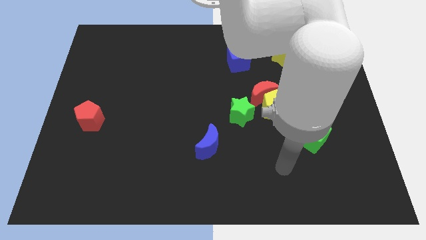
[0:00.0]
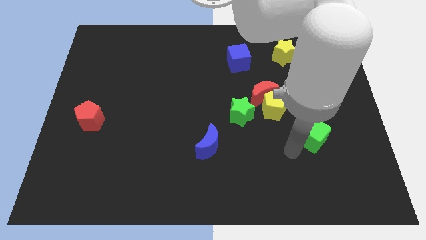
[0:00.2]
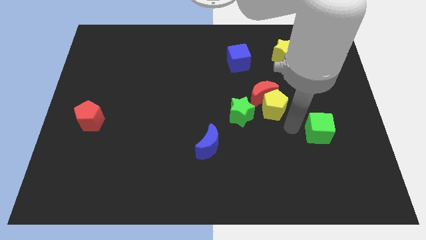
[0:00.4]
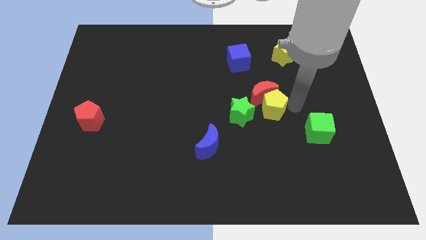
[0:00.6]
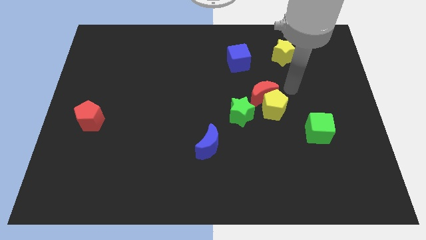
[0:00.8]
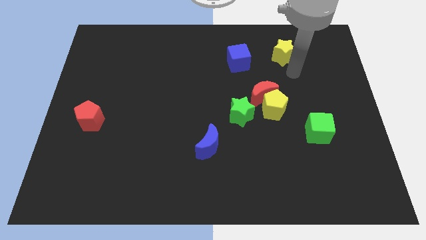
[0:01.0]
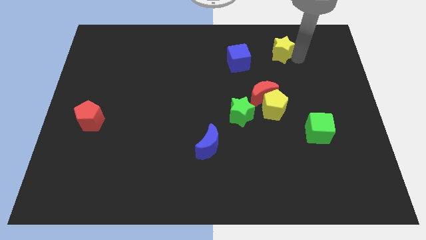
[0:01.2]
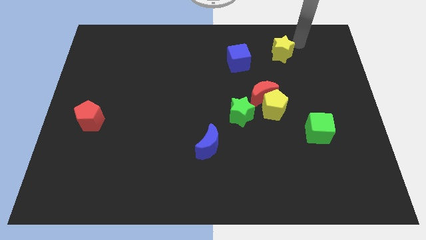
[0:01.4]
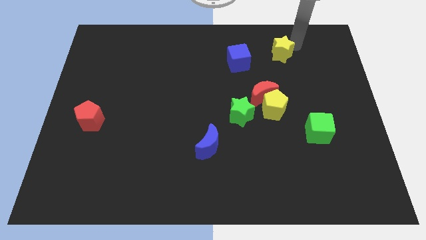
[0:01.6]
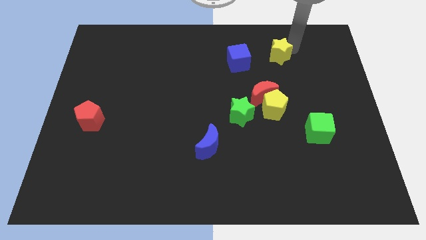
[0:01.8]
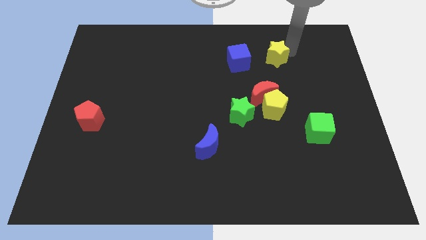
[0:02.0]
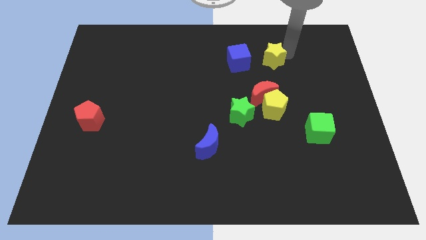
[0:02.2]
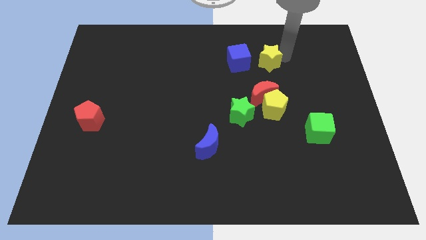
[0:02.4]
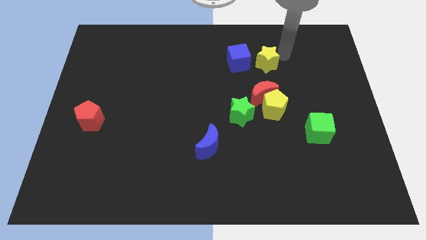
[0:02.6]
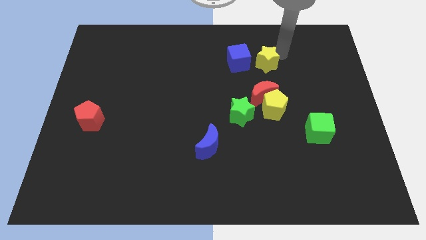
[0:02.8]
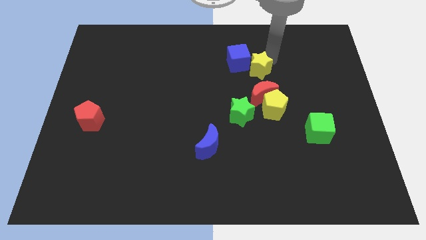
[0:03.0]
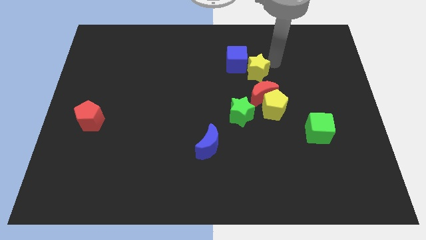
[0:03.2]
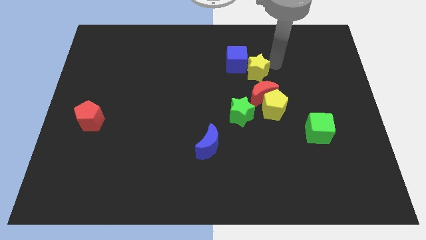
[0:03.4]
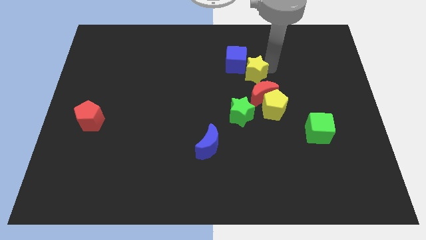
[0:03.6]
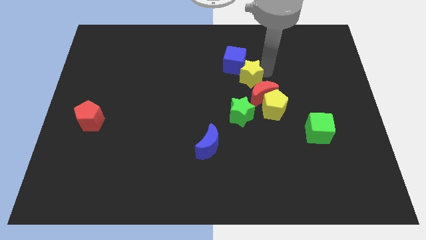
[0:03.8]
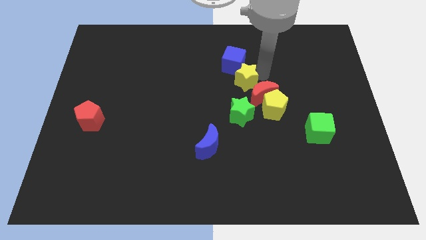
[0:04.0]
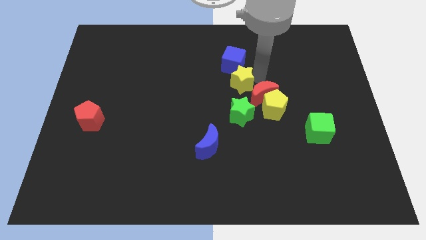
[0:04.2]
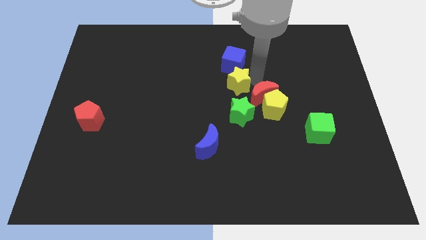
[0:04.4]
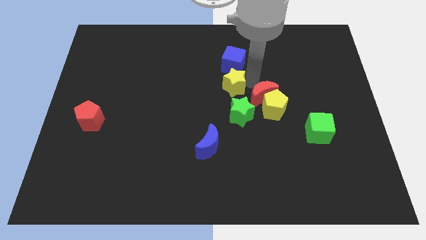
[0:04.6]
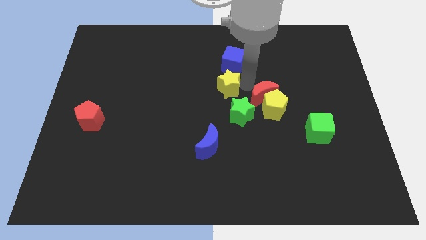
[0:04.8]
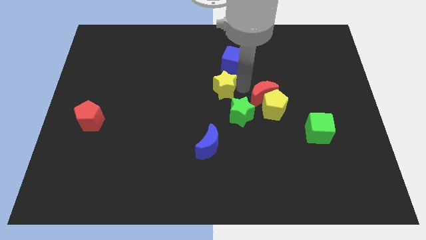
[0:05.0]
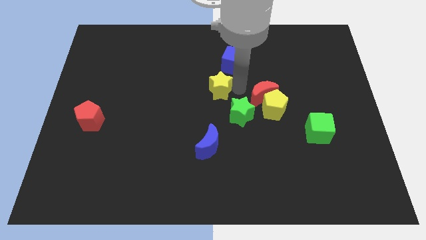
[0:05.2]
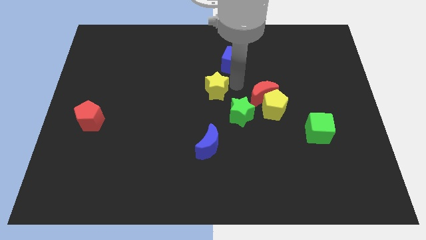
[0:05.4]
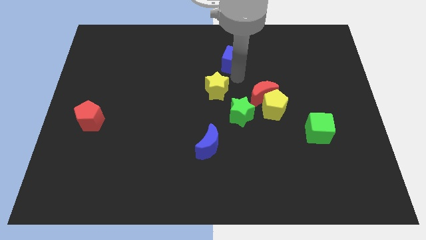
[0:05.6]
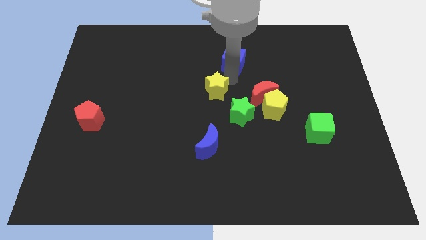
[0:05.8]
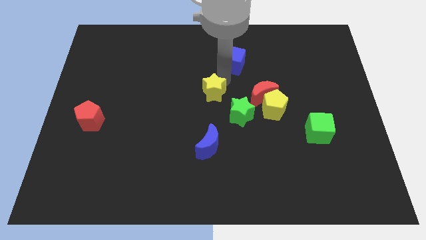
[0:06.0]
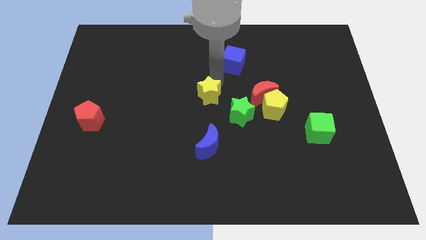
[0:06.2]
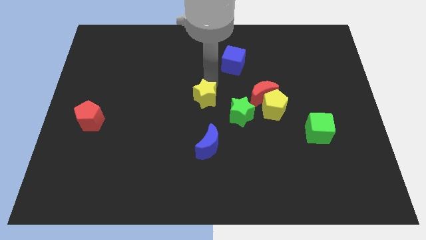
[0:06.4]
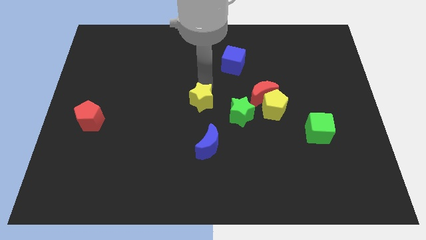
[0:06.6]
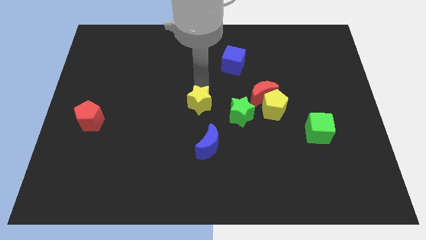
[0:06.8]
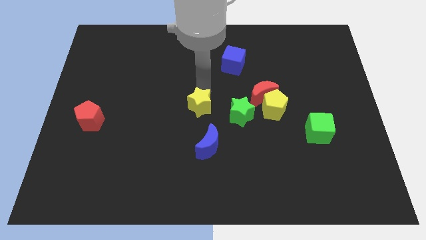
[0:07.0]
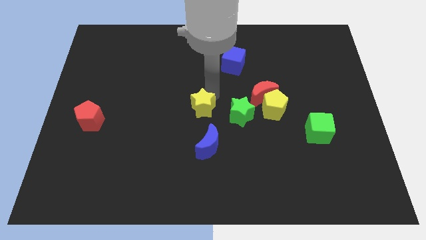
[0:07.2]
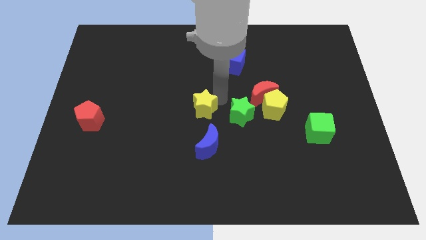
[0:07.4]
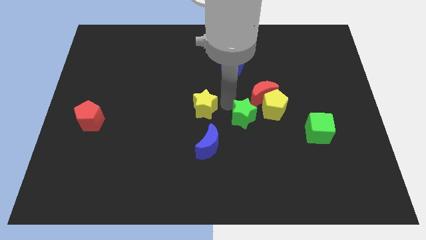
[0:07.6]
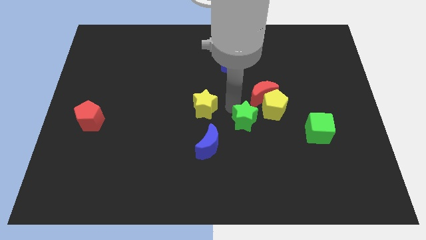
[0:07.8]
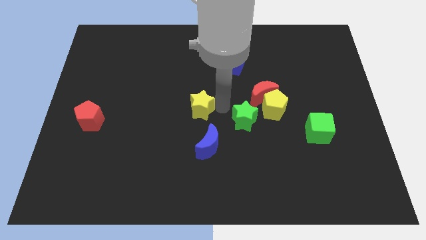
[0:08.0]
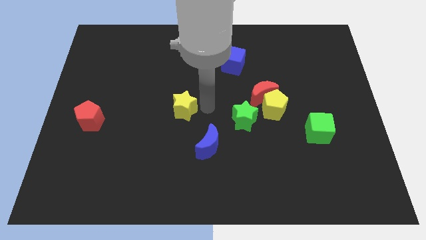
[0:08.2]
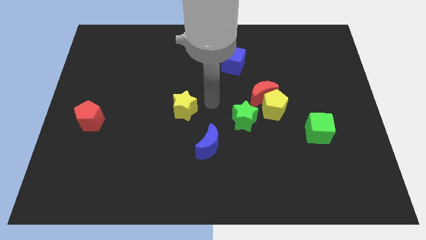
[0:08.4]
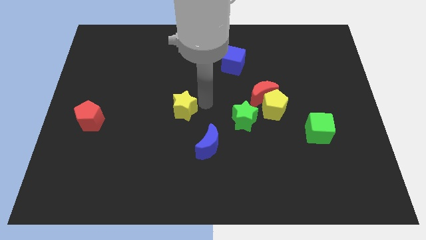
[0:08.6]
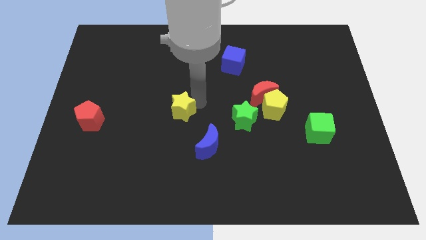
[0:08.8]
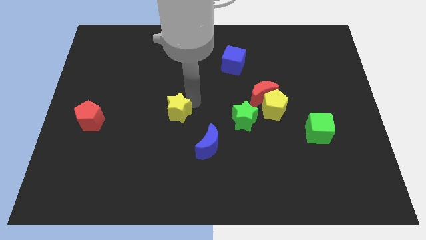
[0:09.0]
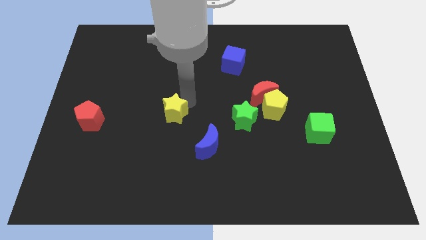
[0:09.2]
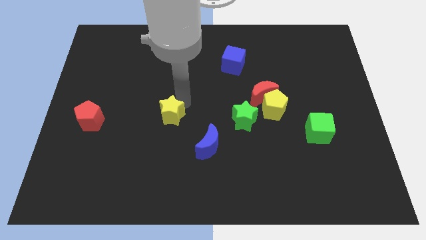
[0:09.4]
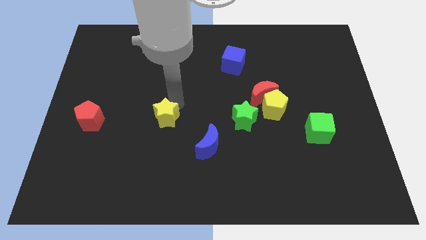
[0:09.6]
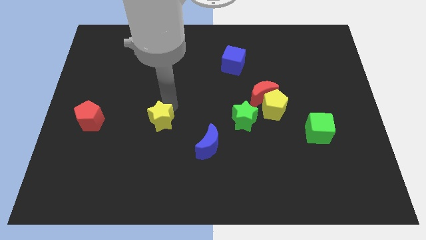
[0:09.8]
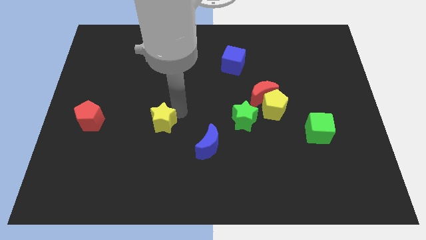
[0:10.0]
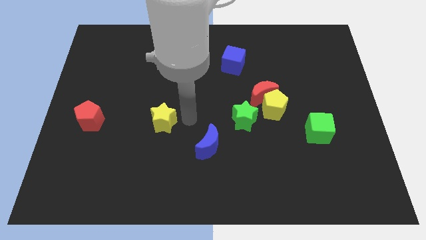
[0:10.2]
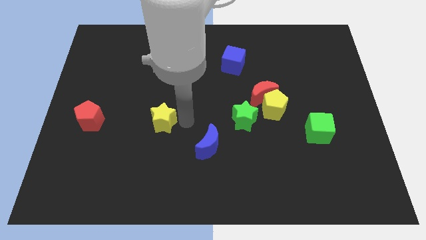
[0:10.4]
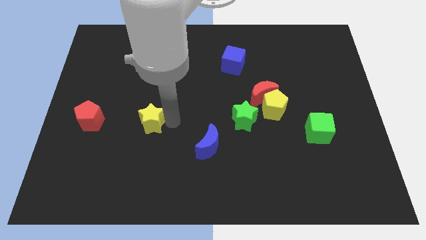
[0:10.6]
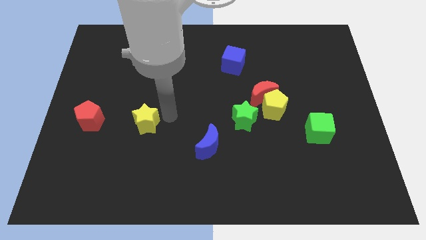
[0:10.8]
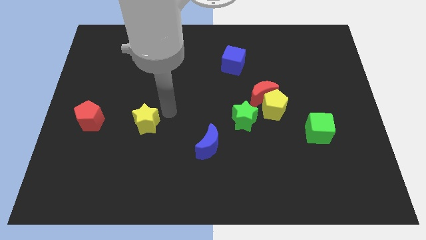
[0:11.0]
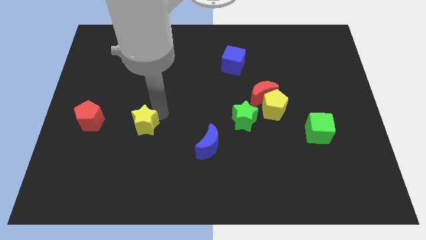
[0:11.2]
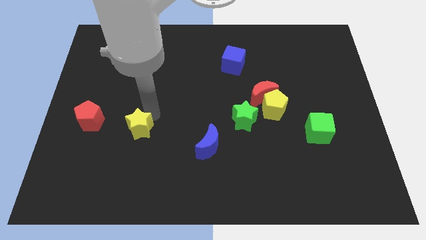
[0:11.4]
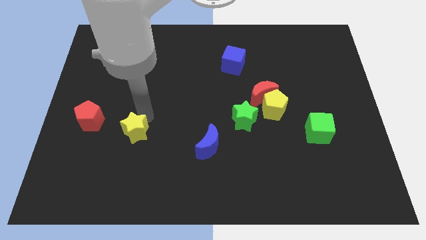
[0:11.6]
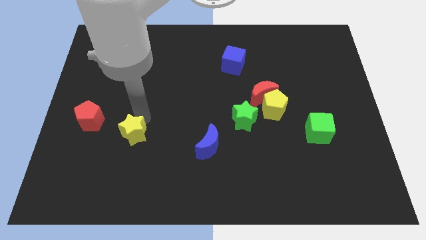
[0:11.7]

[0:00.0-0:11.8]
push the yellow star to the bottom right side of the red pentagon

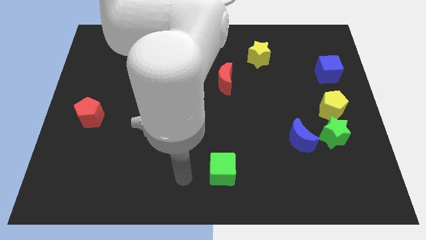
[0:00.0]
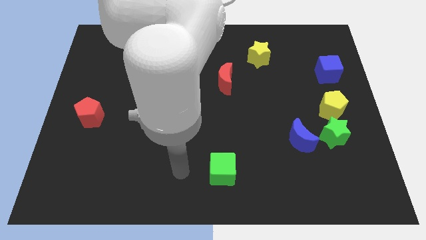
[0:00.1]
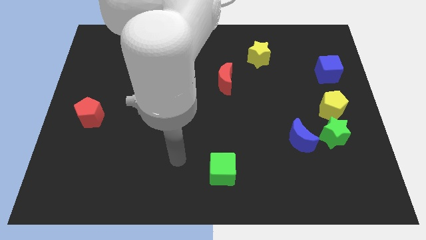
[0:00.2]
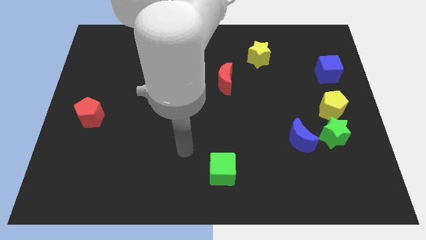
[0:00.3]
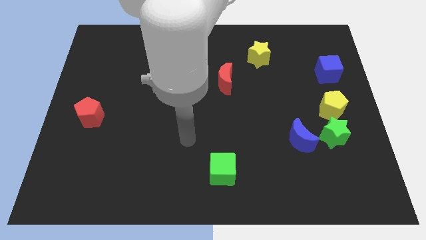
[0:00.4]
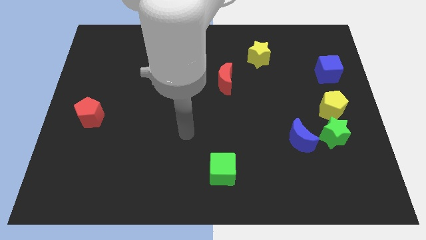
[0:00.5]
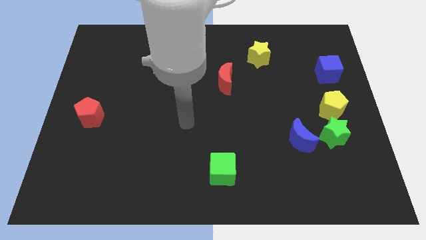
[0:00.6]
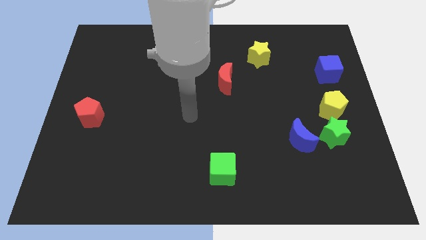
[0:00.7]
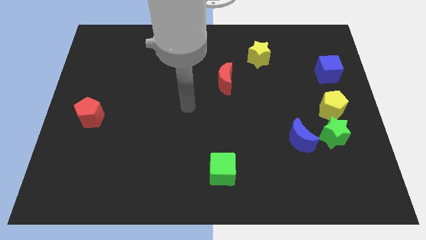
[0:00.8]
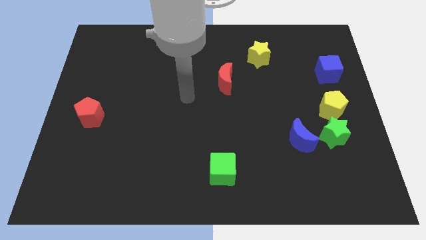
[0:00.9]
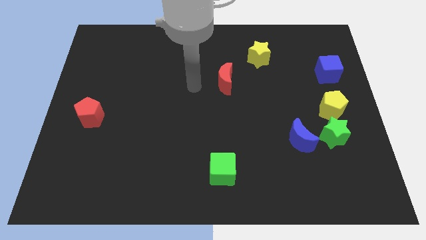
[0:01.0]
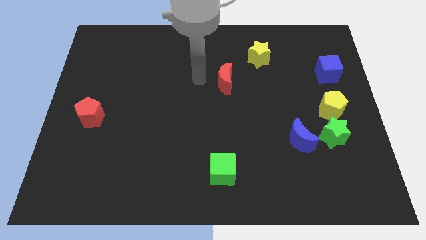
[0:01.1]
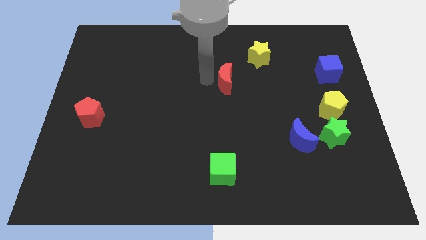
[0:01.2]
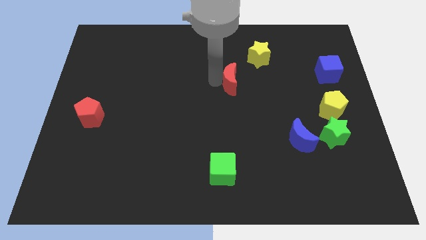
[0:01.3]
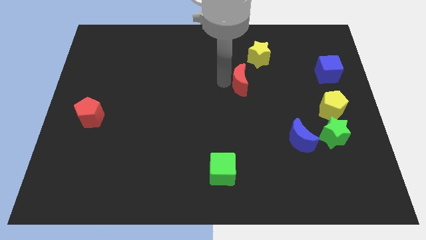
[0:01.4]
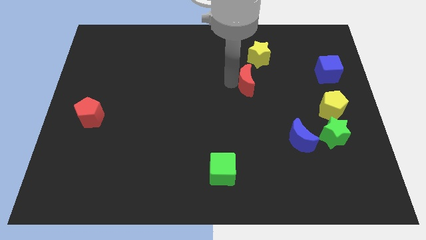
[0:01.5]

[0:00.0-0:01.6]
move the red moon below the yellow star
